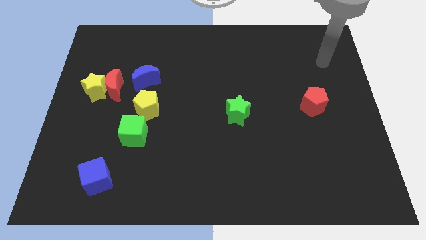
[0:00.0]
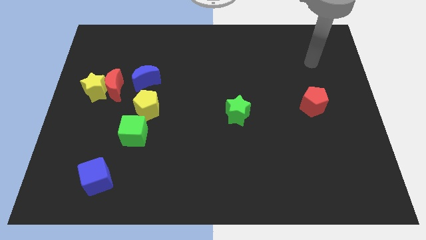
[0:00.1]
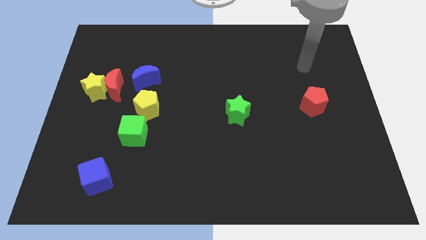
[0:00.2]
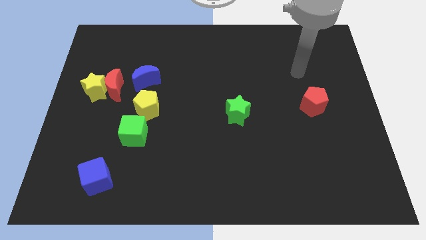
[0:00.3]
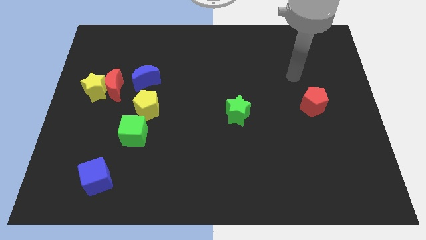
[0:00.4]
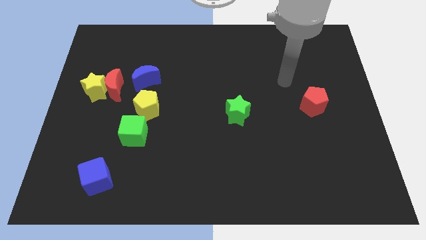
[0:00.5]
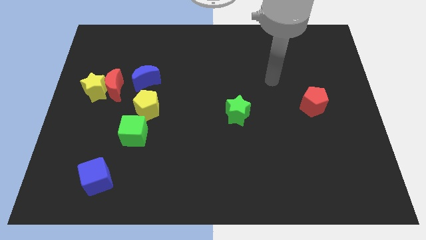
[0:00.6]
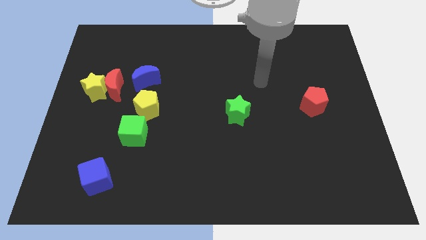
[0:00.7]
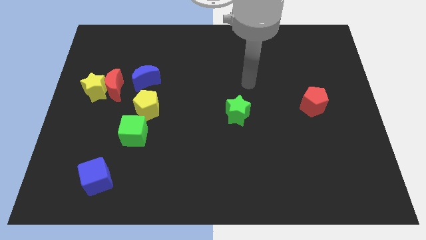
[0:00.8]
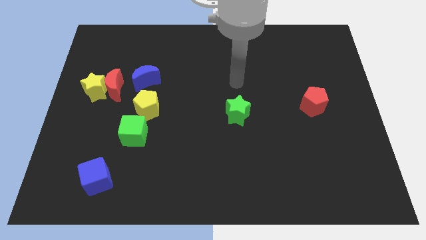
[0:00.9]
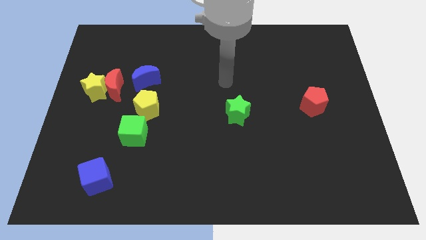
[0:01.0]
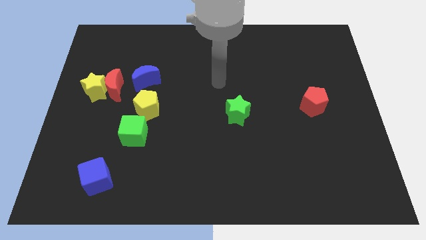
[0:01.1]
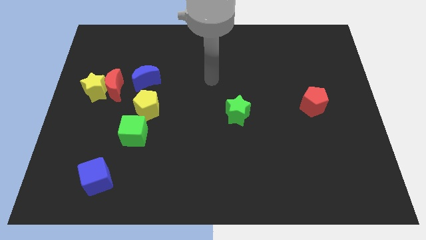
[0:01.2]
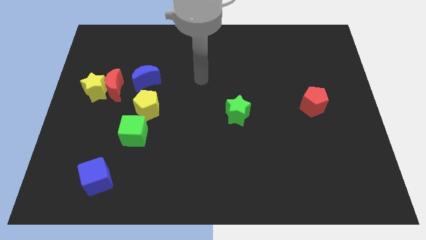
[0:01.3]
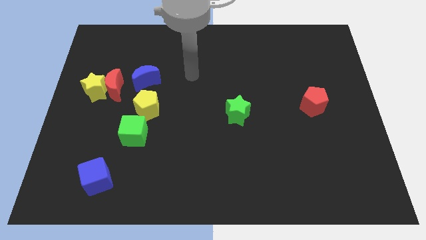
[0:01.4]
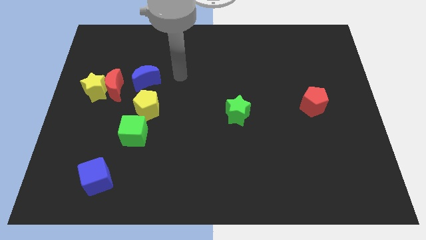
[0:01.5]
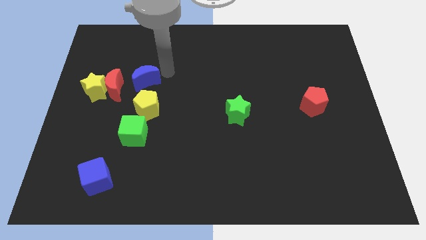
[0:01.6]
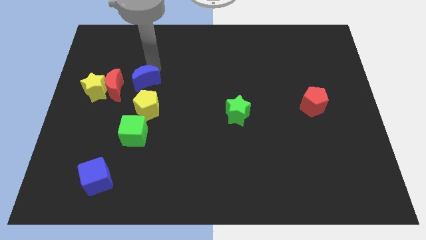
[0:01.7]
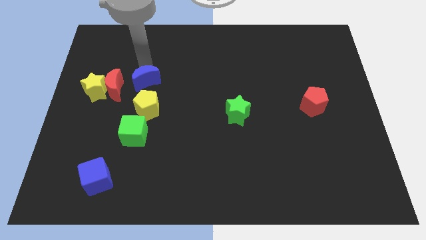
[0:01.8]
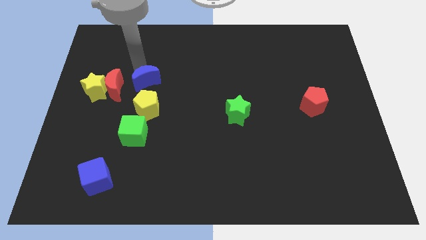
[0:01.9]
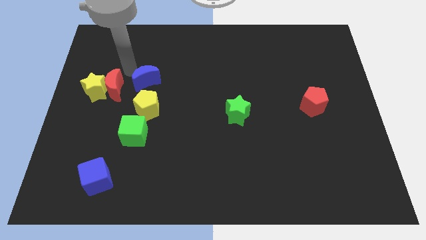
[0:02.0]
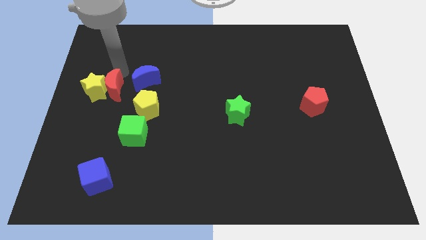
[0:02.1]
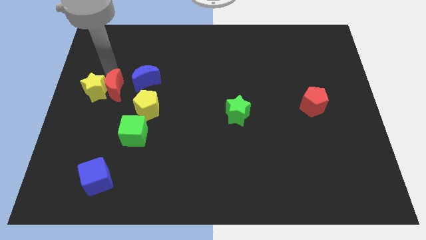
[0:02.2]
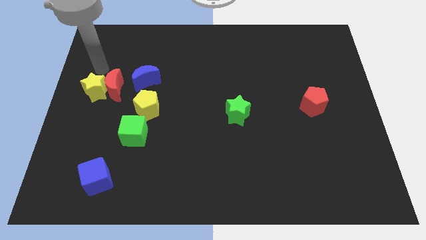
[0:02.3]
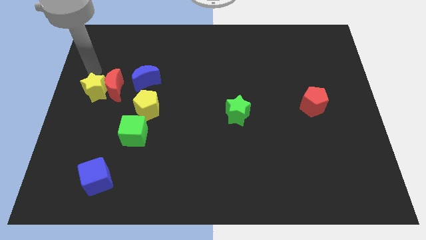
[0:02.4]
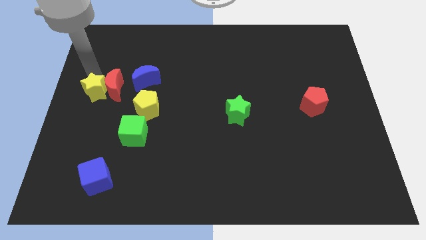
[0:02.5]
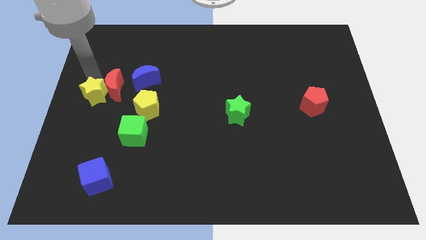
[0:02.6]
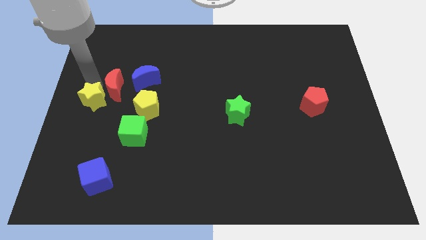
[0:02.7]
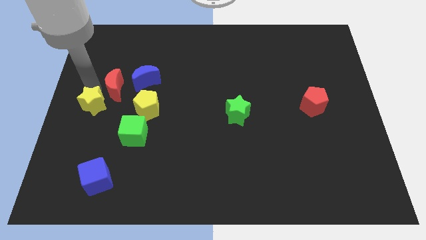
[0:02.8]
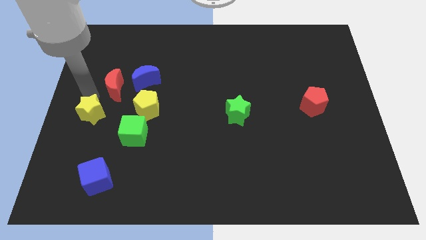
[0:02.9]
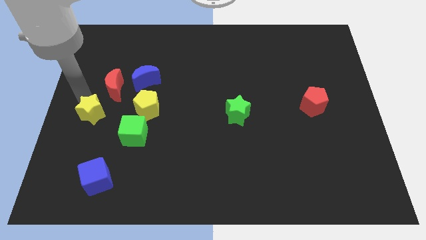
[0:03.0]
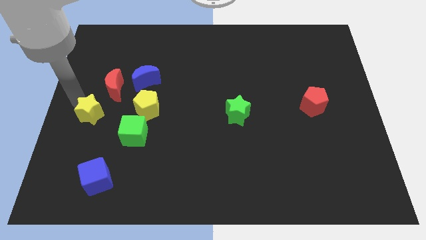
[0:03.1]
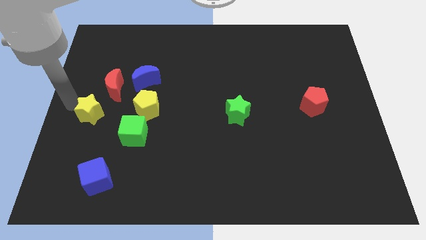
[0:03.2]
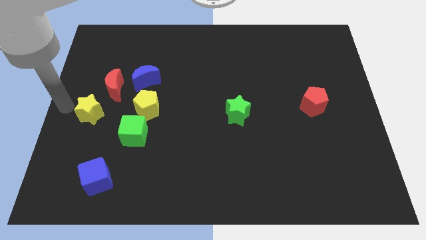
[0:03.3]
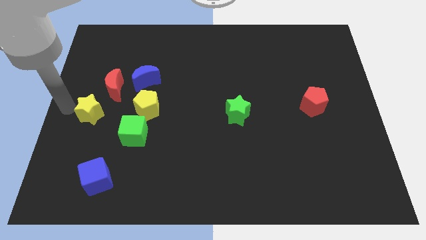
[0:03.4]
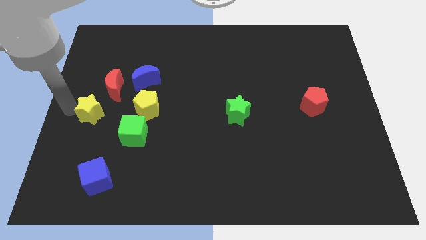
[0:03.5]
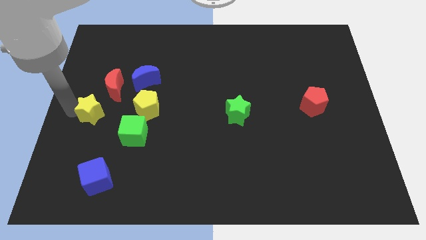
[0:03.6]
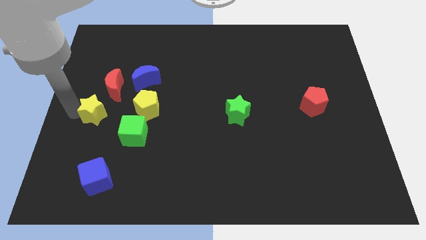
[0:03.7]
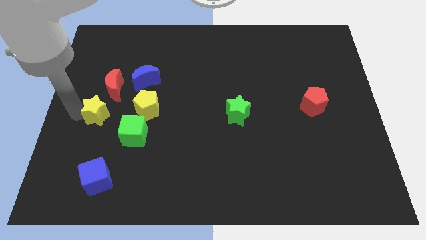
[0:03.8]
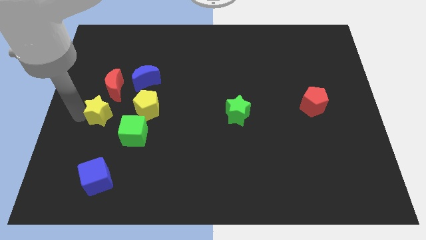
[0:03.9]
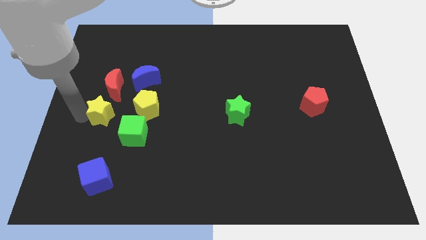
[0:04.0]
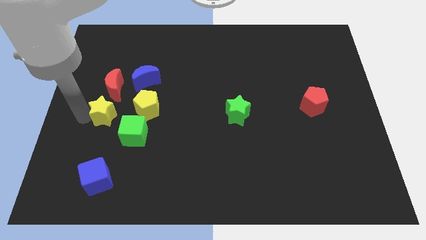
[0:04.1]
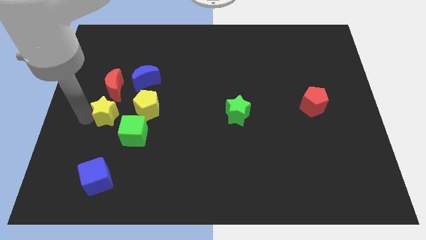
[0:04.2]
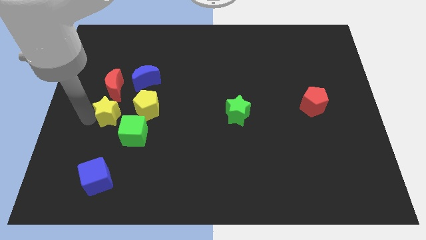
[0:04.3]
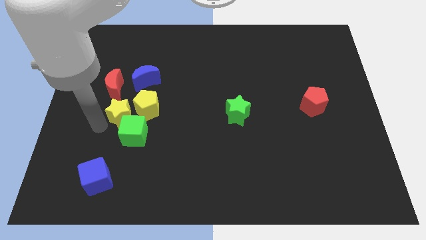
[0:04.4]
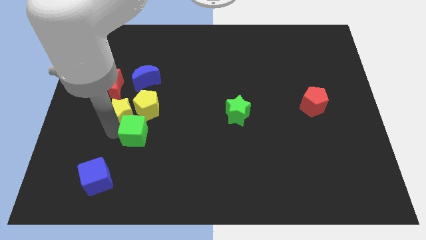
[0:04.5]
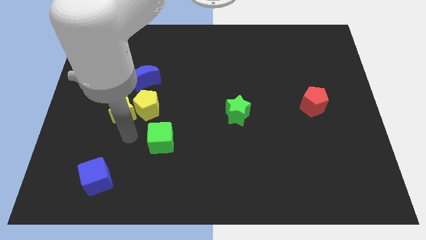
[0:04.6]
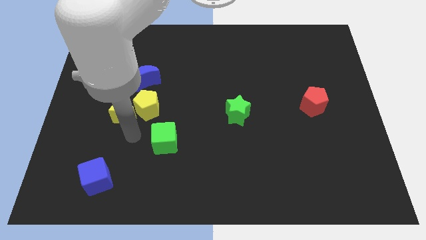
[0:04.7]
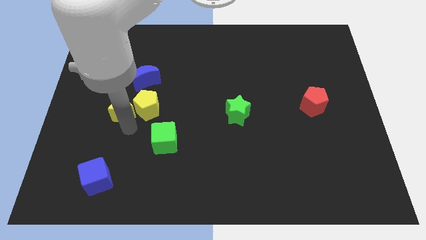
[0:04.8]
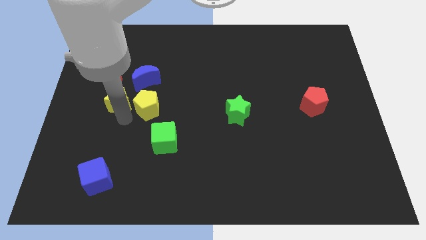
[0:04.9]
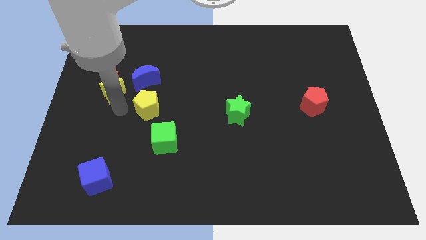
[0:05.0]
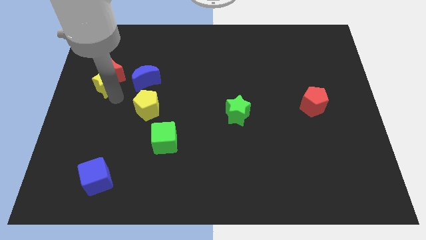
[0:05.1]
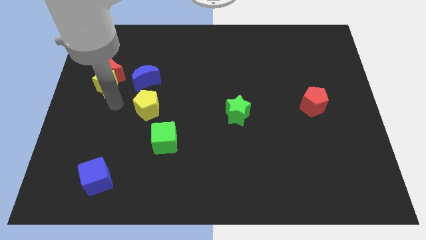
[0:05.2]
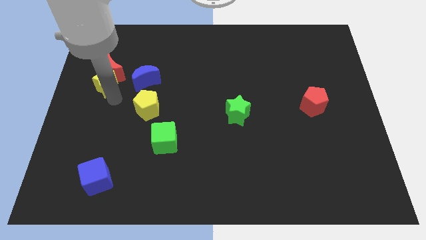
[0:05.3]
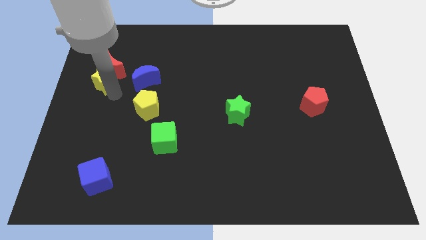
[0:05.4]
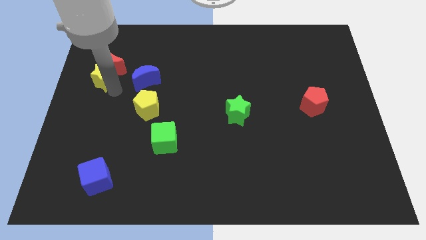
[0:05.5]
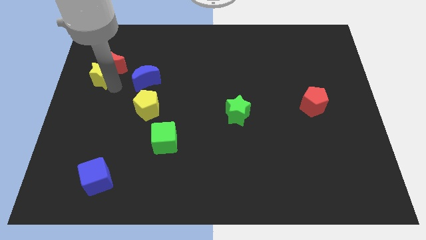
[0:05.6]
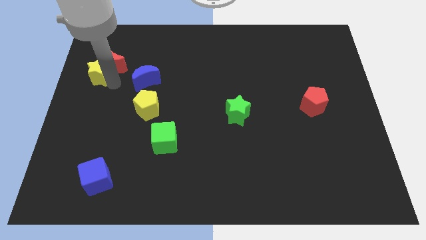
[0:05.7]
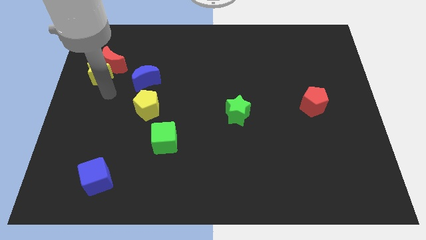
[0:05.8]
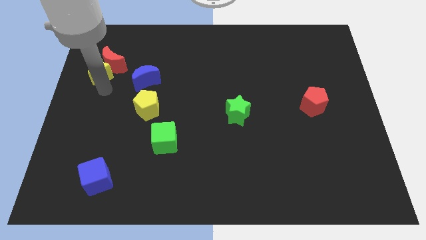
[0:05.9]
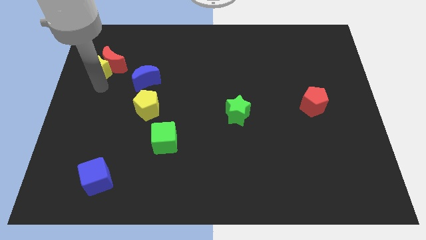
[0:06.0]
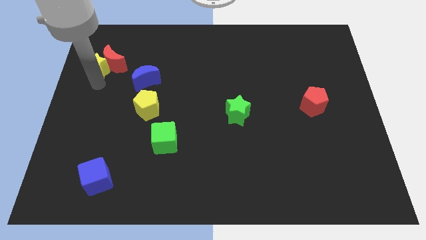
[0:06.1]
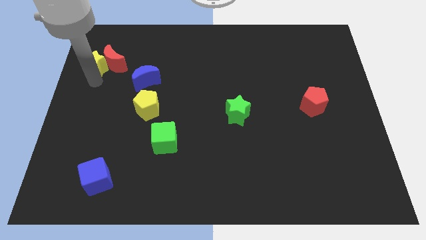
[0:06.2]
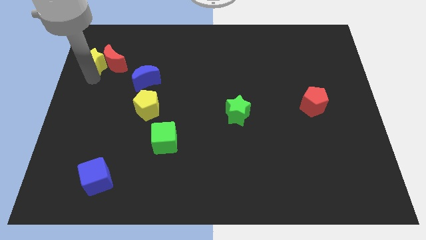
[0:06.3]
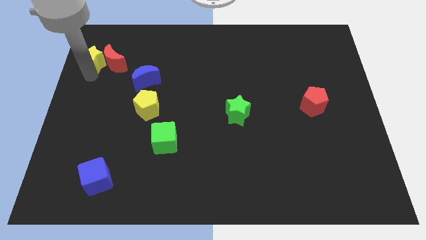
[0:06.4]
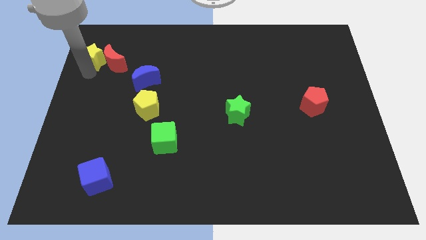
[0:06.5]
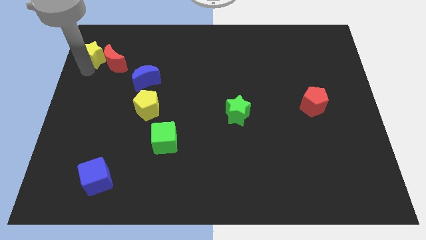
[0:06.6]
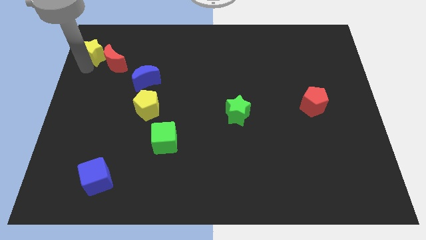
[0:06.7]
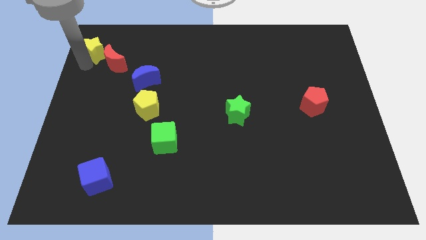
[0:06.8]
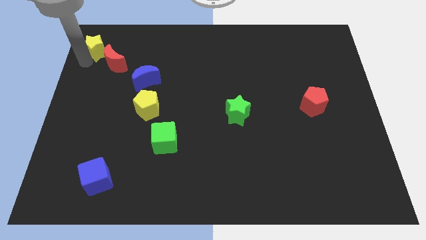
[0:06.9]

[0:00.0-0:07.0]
push the yellow star to the top left corner
